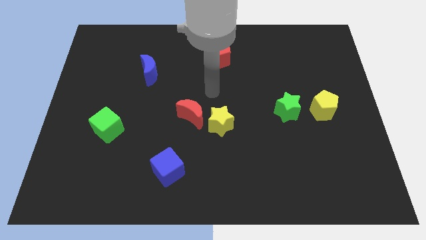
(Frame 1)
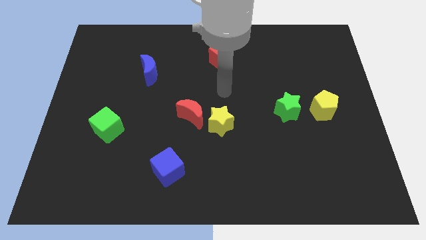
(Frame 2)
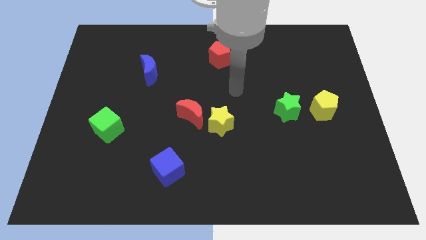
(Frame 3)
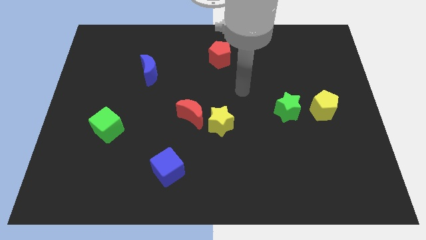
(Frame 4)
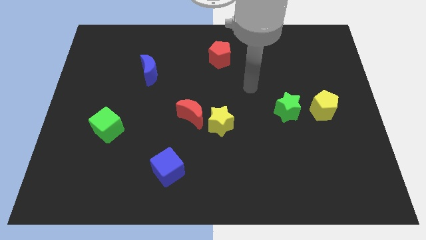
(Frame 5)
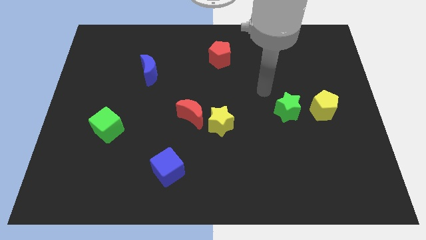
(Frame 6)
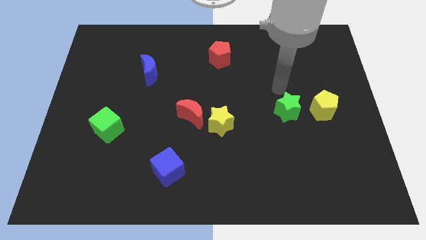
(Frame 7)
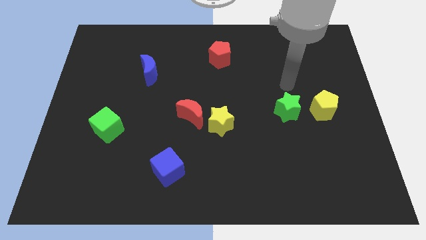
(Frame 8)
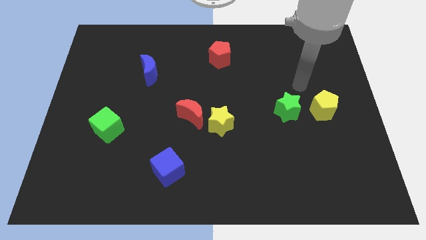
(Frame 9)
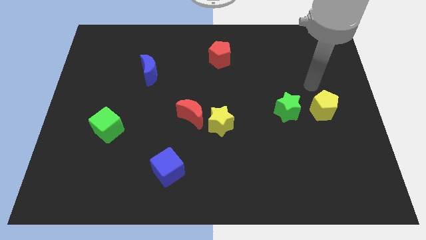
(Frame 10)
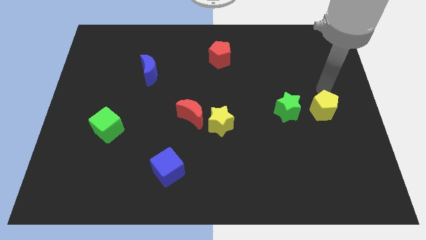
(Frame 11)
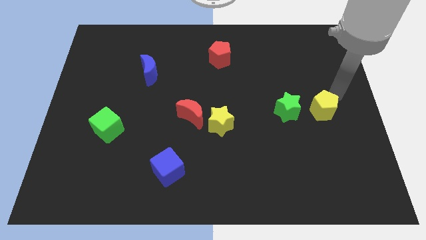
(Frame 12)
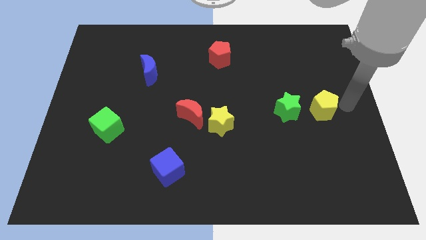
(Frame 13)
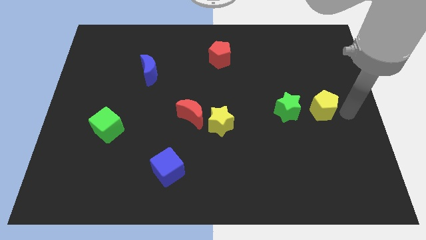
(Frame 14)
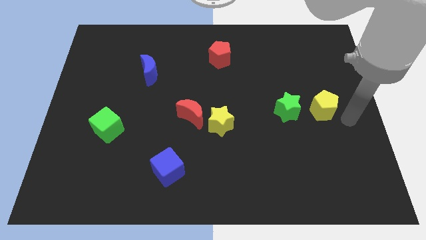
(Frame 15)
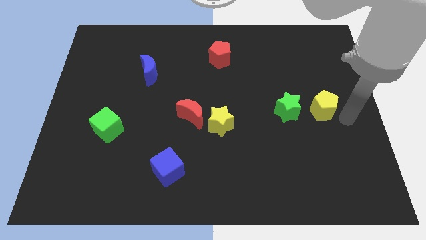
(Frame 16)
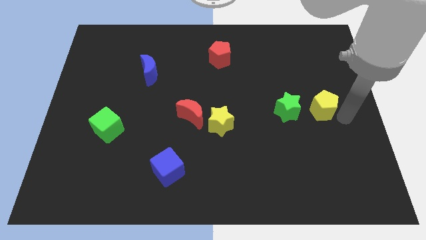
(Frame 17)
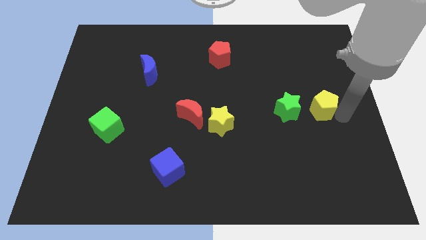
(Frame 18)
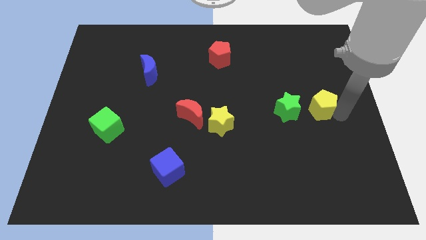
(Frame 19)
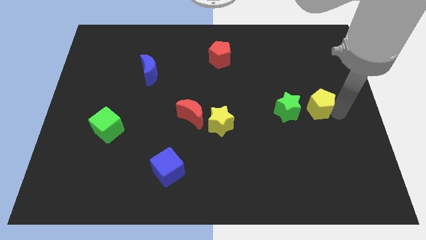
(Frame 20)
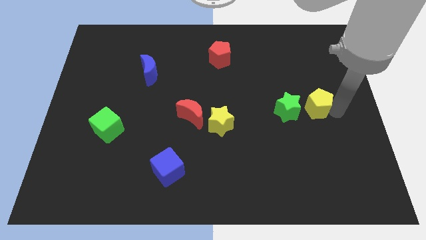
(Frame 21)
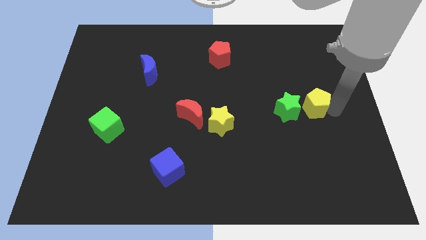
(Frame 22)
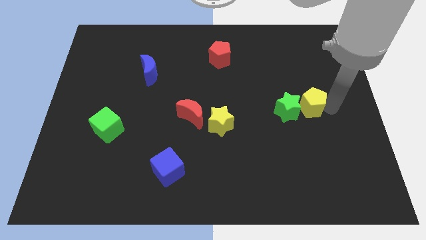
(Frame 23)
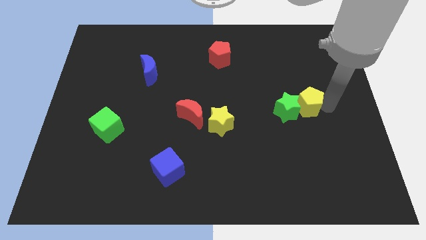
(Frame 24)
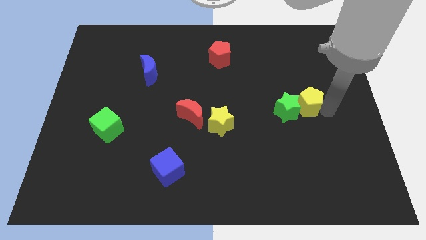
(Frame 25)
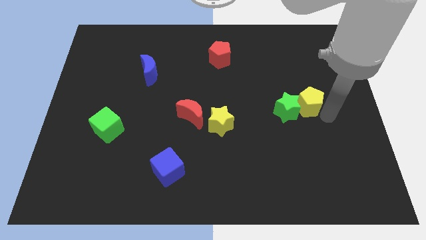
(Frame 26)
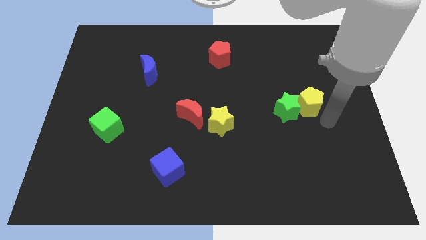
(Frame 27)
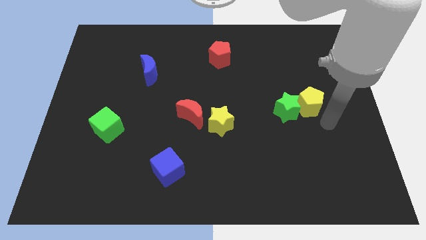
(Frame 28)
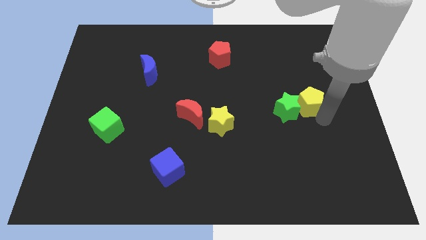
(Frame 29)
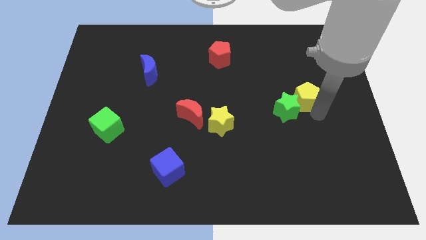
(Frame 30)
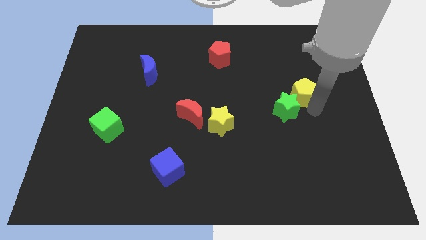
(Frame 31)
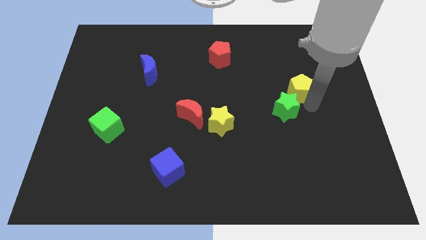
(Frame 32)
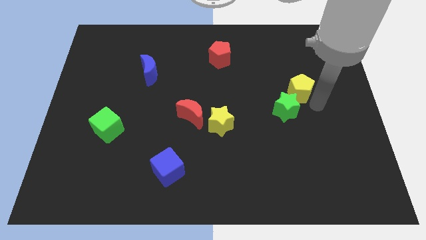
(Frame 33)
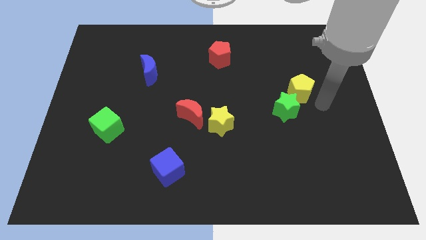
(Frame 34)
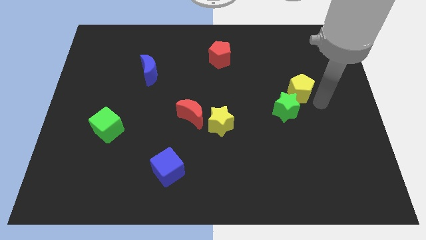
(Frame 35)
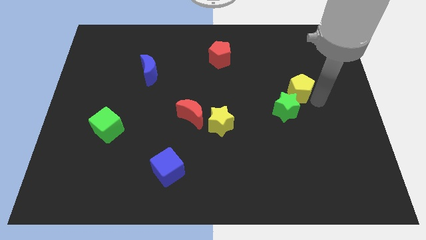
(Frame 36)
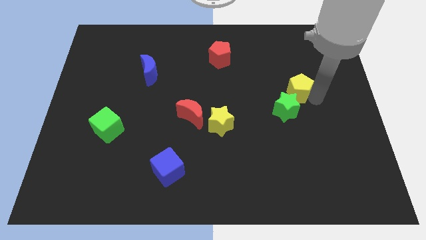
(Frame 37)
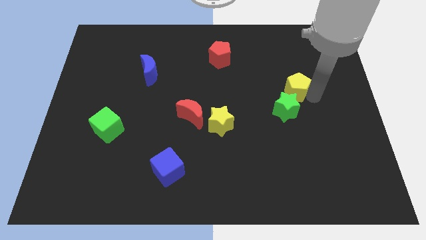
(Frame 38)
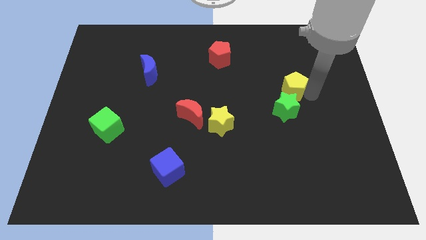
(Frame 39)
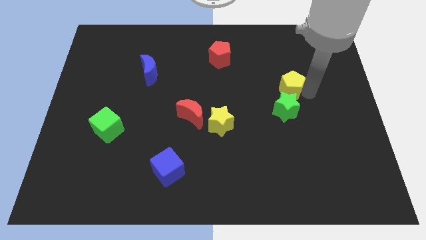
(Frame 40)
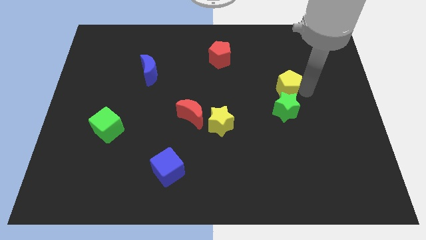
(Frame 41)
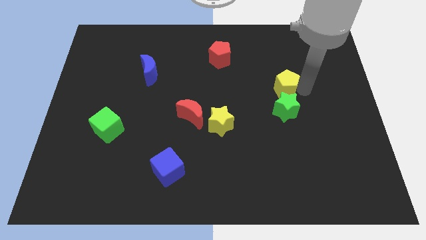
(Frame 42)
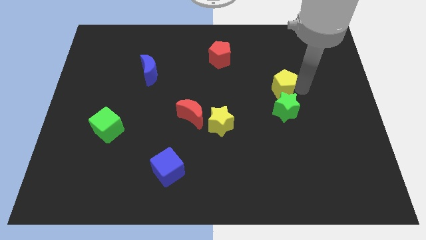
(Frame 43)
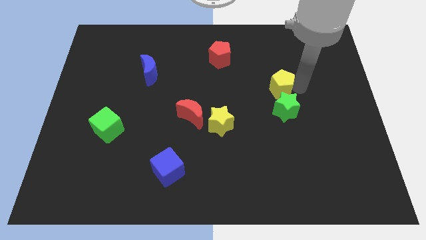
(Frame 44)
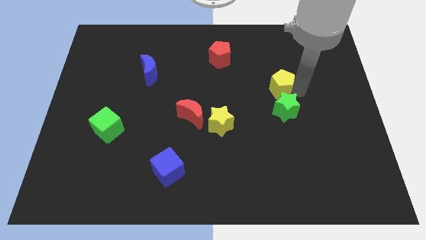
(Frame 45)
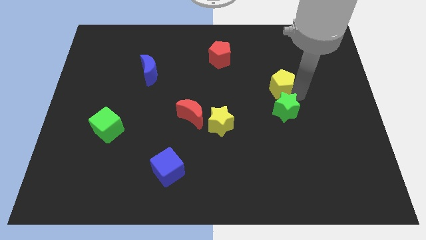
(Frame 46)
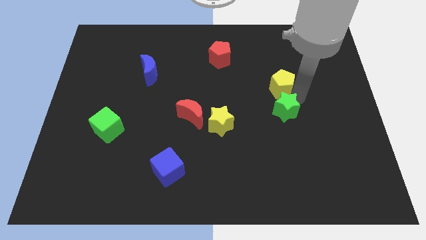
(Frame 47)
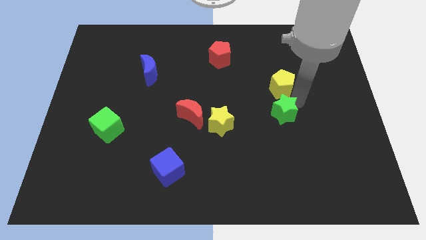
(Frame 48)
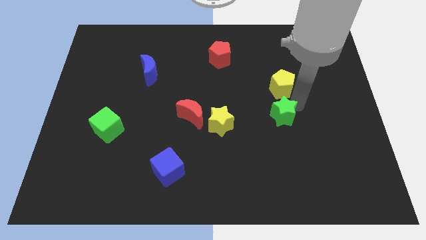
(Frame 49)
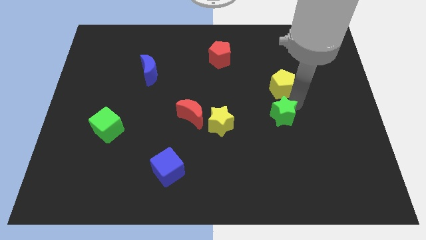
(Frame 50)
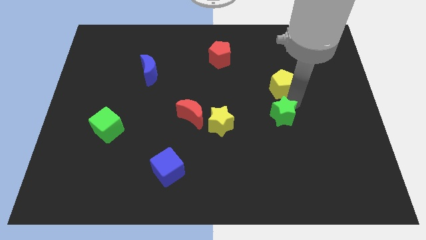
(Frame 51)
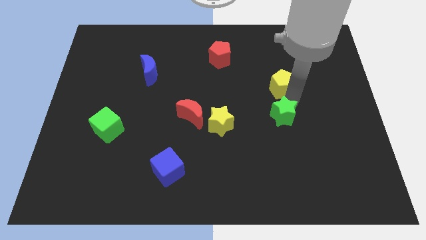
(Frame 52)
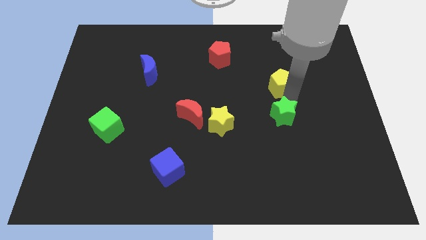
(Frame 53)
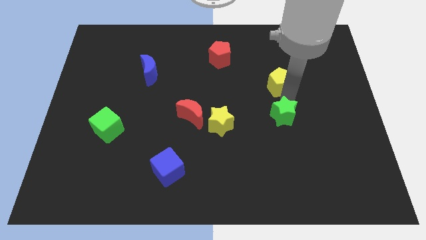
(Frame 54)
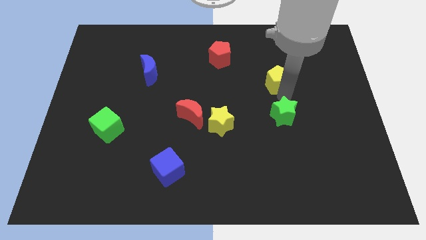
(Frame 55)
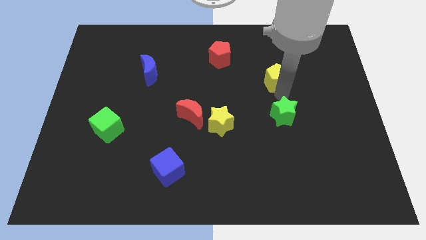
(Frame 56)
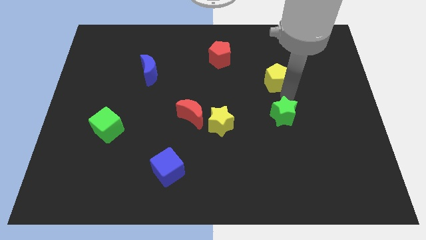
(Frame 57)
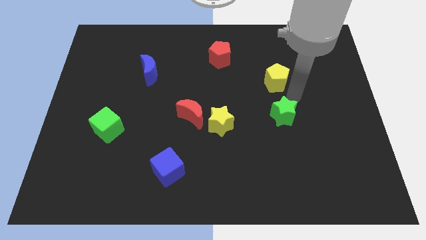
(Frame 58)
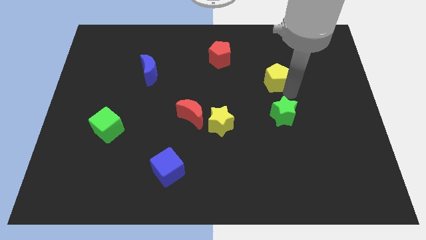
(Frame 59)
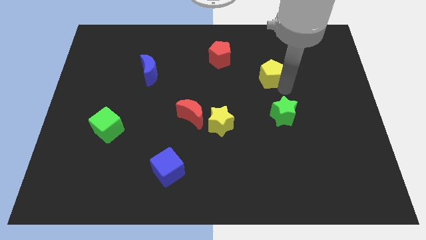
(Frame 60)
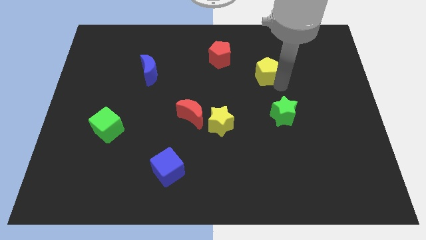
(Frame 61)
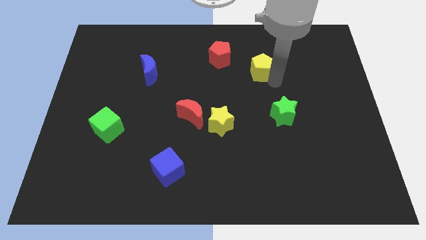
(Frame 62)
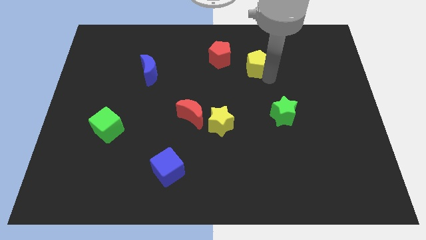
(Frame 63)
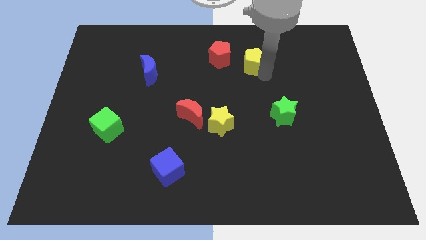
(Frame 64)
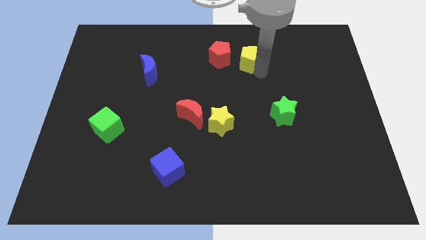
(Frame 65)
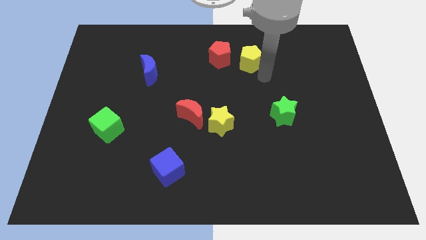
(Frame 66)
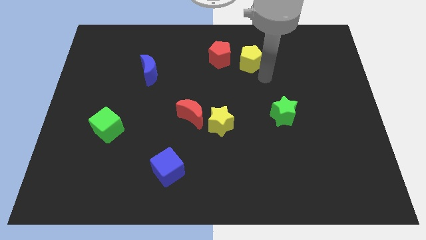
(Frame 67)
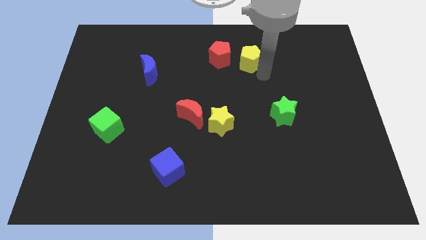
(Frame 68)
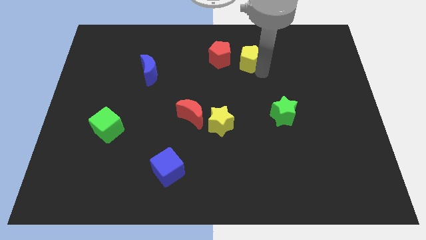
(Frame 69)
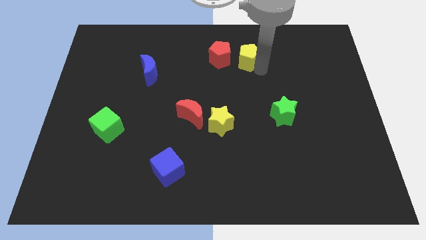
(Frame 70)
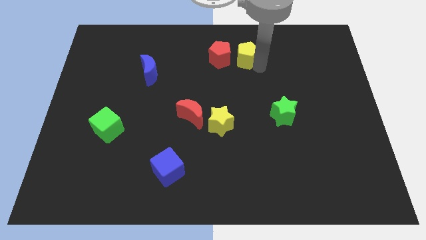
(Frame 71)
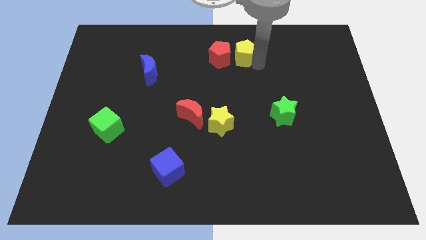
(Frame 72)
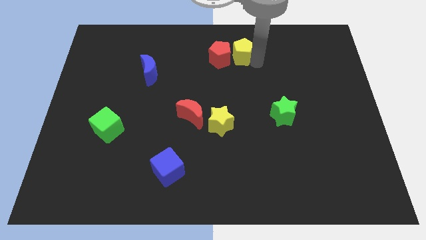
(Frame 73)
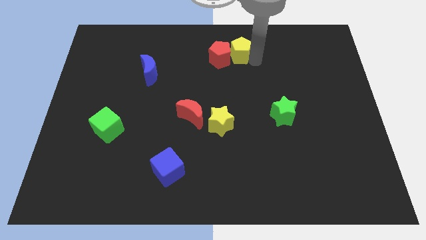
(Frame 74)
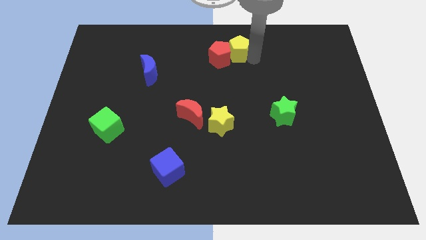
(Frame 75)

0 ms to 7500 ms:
put the yellow pentagon to the top side
